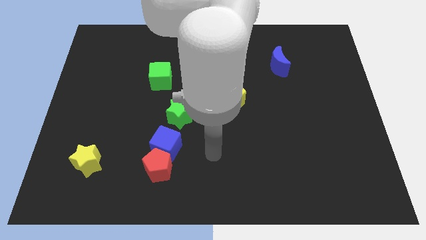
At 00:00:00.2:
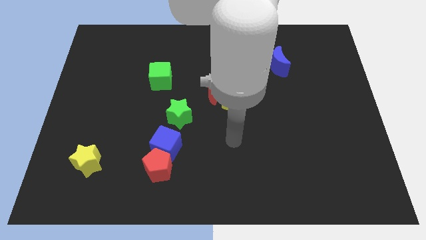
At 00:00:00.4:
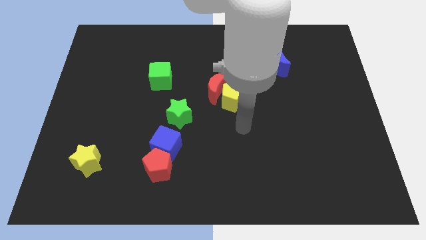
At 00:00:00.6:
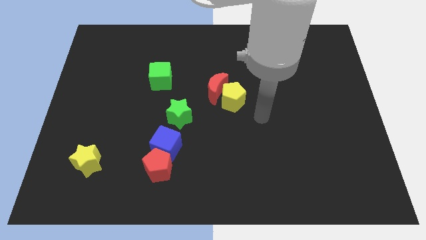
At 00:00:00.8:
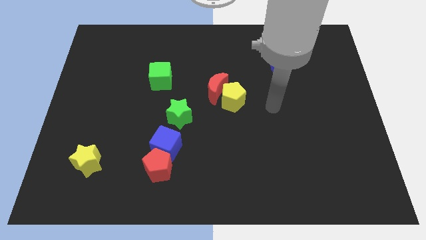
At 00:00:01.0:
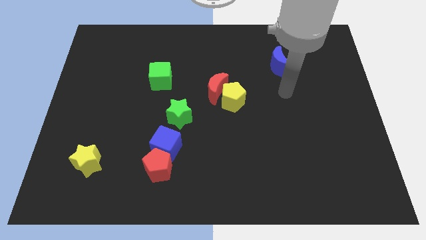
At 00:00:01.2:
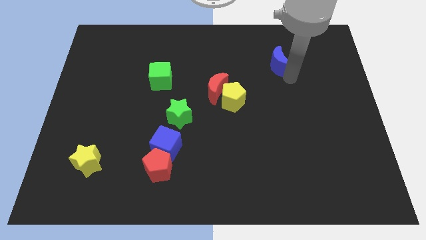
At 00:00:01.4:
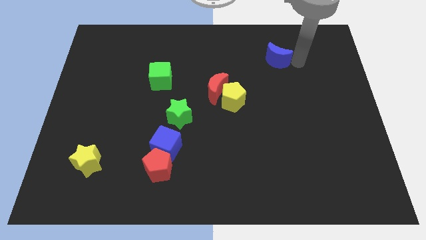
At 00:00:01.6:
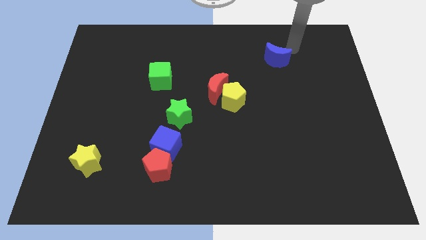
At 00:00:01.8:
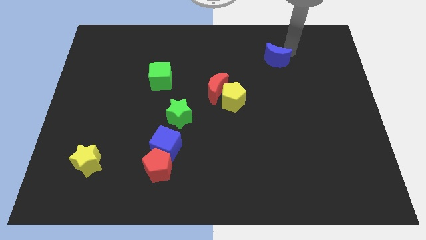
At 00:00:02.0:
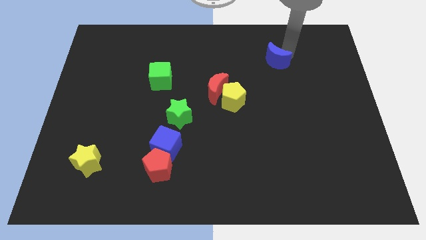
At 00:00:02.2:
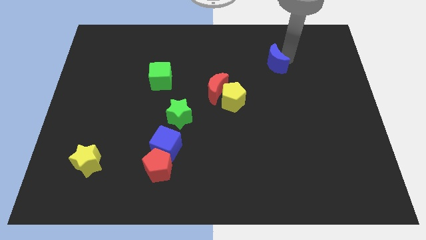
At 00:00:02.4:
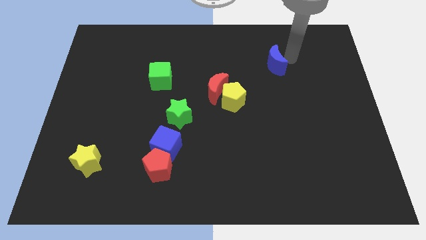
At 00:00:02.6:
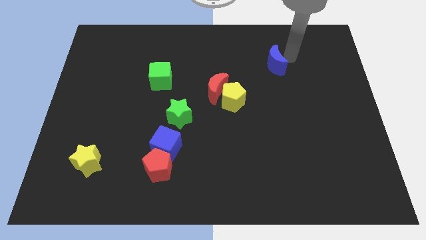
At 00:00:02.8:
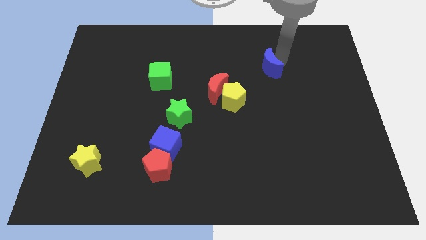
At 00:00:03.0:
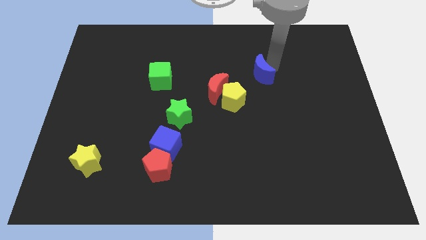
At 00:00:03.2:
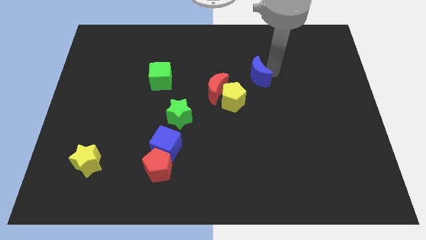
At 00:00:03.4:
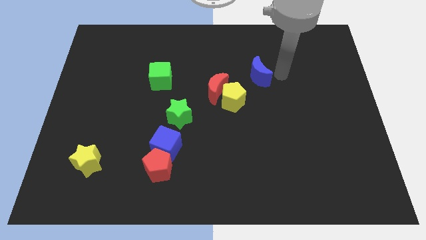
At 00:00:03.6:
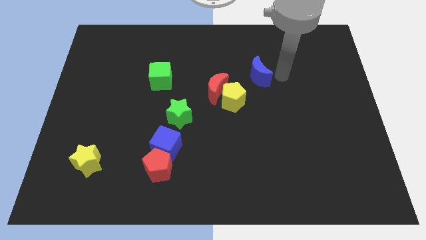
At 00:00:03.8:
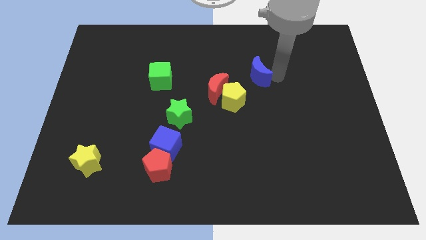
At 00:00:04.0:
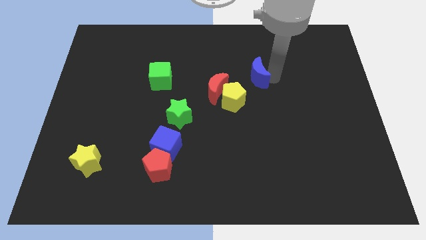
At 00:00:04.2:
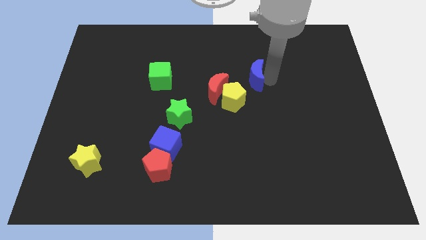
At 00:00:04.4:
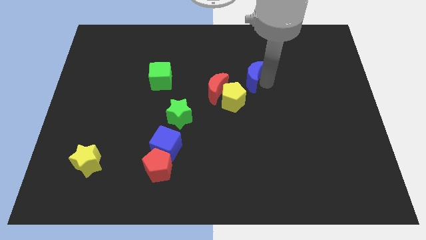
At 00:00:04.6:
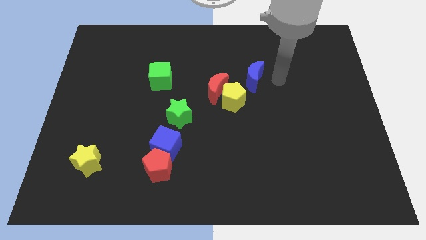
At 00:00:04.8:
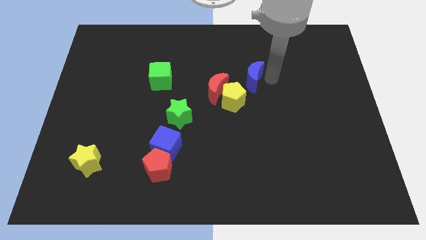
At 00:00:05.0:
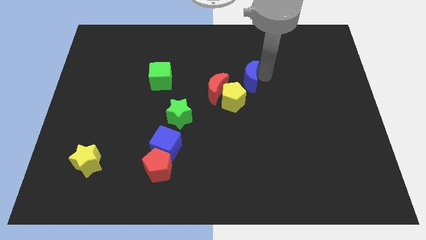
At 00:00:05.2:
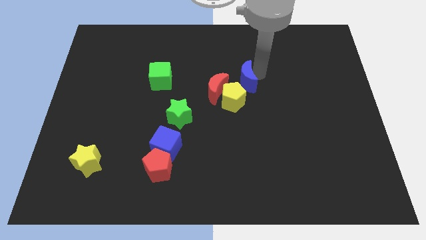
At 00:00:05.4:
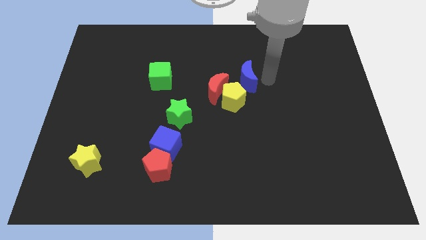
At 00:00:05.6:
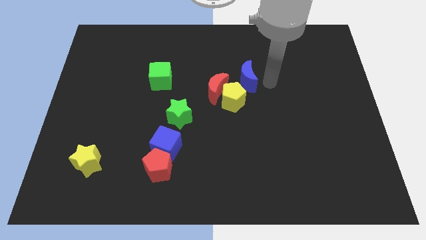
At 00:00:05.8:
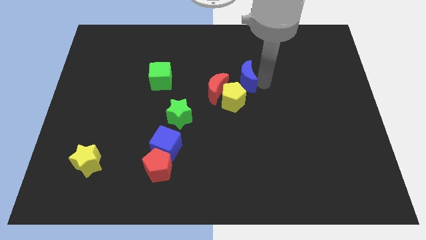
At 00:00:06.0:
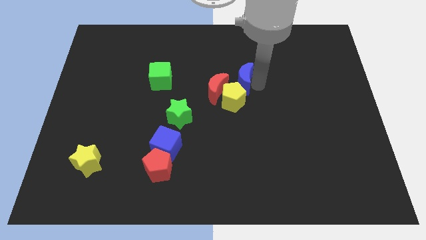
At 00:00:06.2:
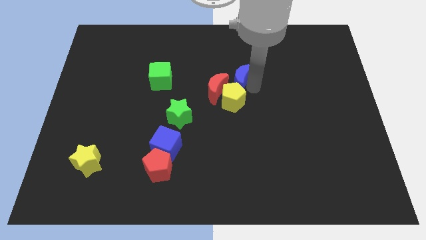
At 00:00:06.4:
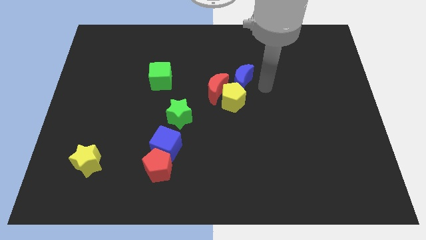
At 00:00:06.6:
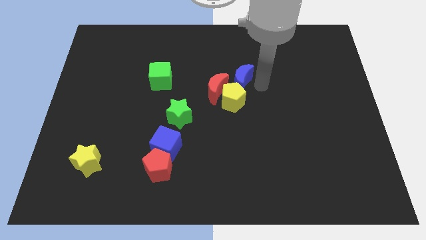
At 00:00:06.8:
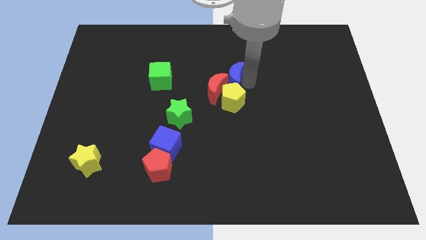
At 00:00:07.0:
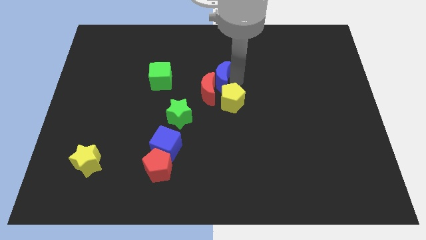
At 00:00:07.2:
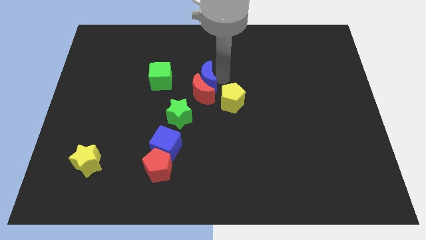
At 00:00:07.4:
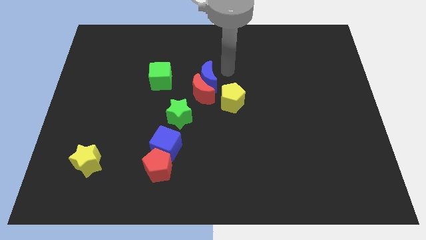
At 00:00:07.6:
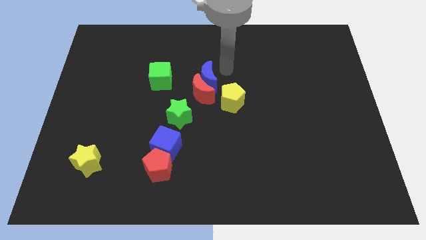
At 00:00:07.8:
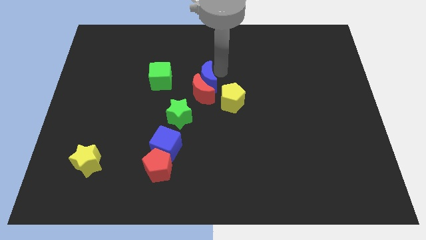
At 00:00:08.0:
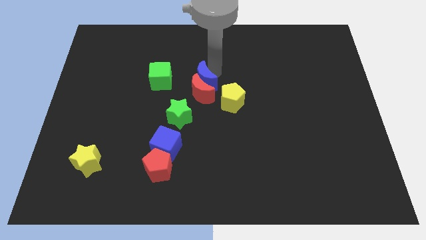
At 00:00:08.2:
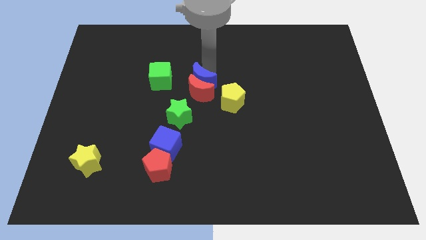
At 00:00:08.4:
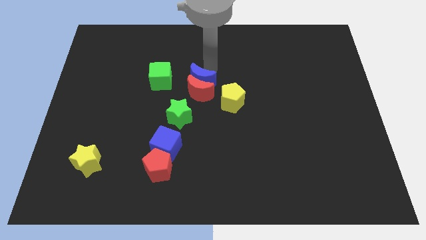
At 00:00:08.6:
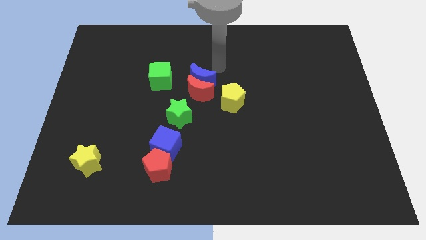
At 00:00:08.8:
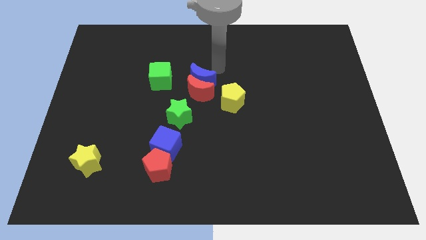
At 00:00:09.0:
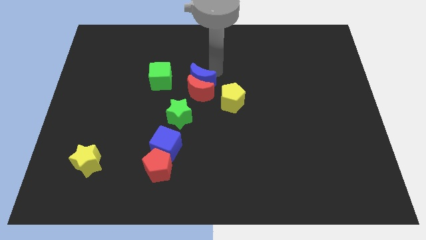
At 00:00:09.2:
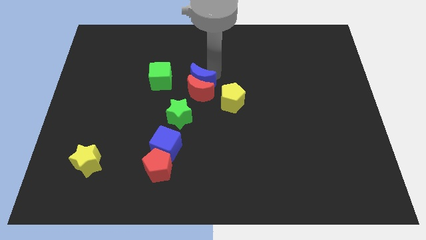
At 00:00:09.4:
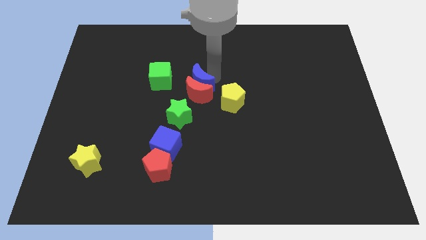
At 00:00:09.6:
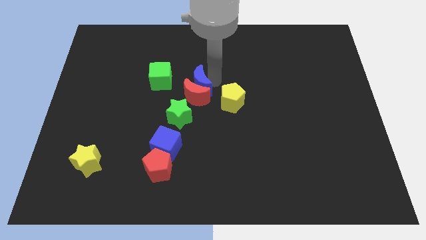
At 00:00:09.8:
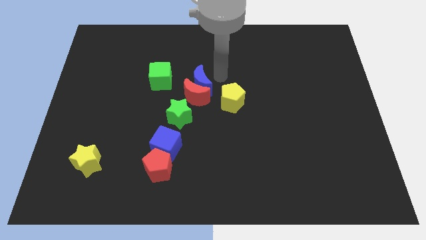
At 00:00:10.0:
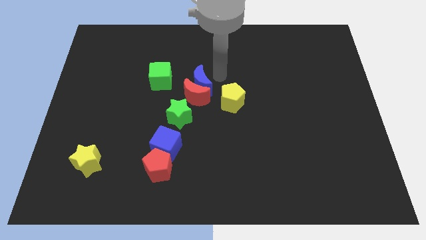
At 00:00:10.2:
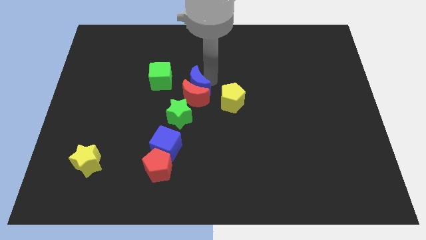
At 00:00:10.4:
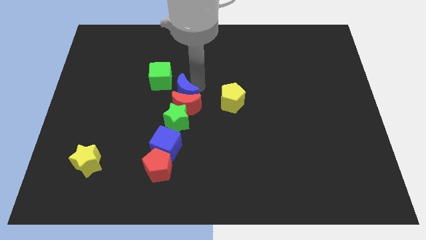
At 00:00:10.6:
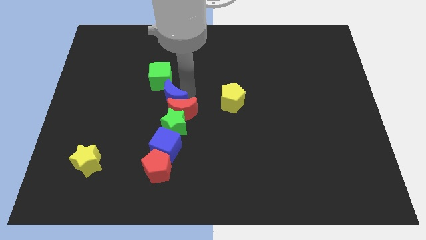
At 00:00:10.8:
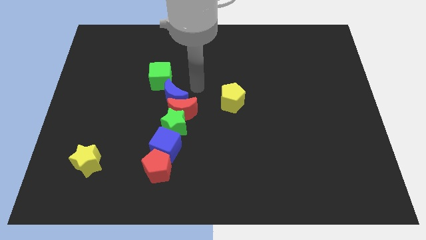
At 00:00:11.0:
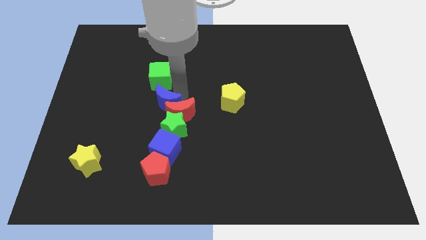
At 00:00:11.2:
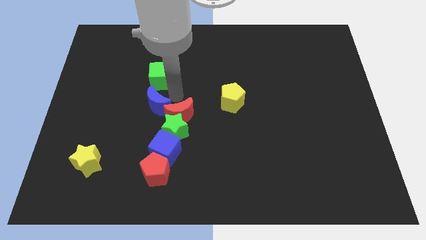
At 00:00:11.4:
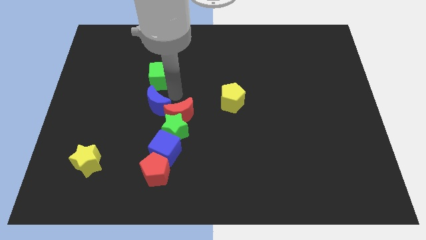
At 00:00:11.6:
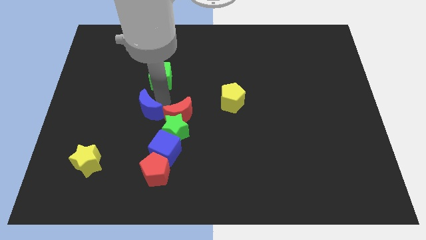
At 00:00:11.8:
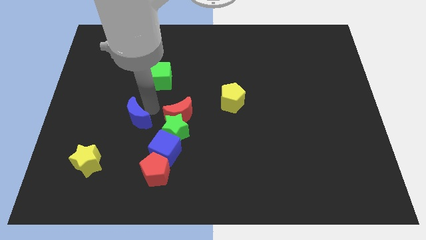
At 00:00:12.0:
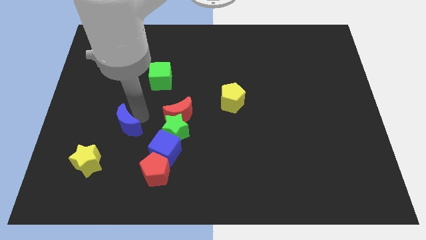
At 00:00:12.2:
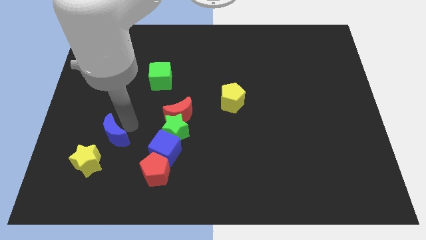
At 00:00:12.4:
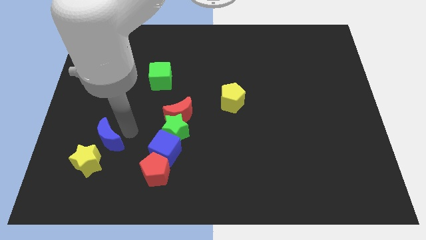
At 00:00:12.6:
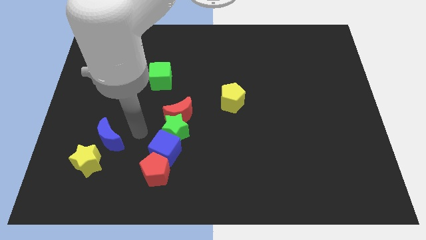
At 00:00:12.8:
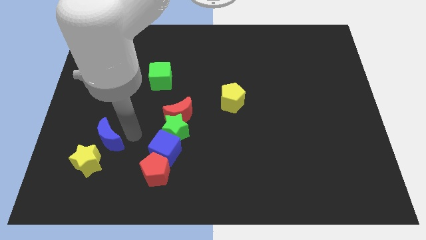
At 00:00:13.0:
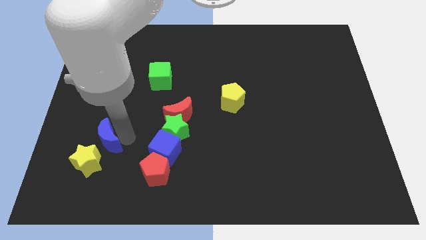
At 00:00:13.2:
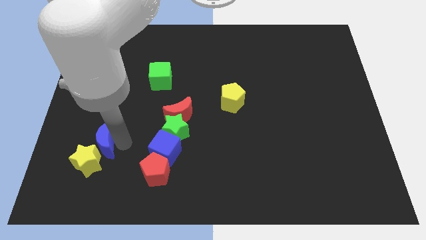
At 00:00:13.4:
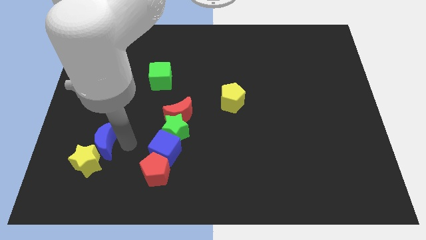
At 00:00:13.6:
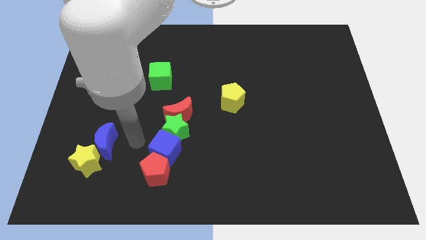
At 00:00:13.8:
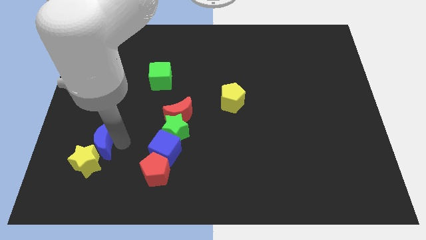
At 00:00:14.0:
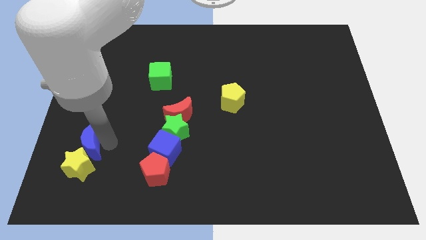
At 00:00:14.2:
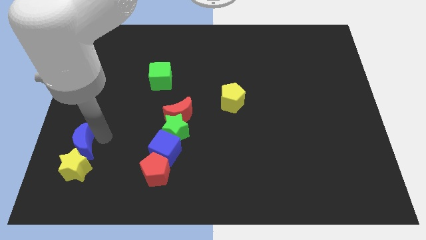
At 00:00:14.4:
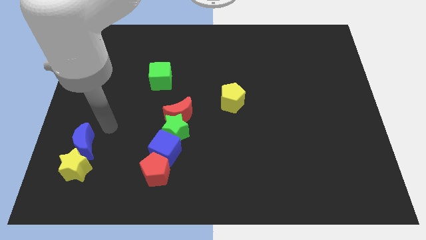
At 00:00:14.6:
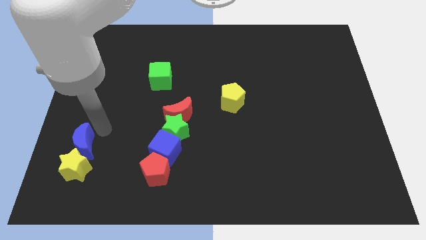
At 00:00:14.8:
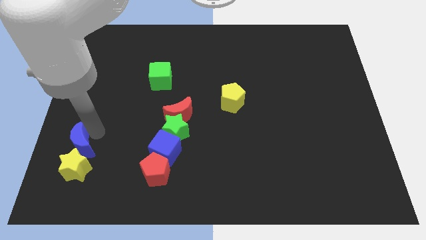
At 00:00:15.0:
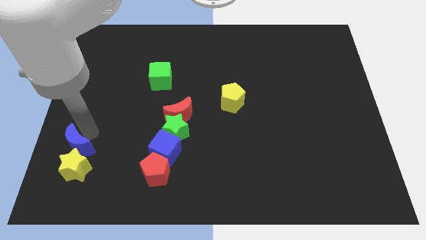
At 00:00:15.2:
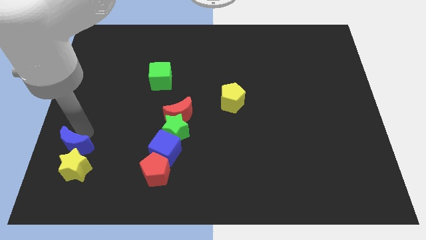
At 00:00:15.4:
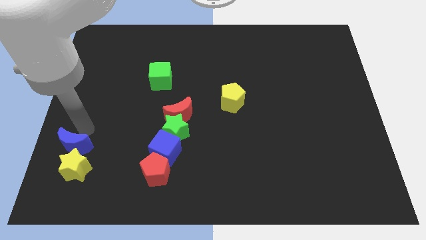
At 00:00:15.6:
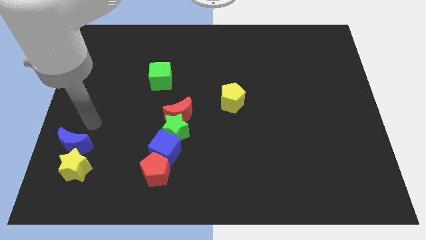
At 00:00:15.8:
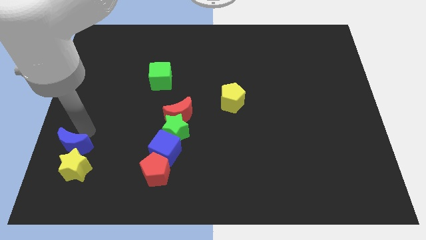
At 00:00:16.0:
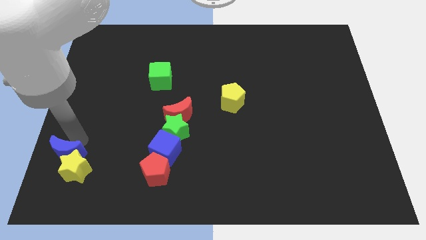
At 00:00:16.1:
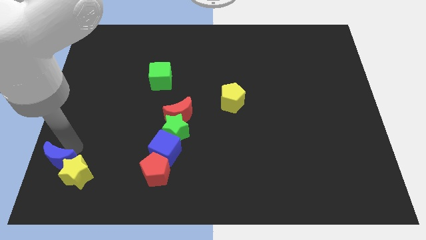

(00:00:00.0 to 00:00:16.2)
push the blue moon to the bottom left
